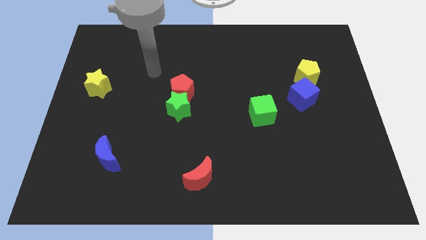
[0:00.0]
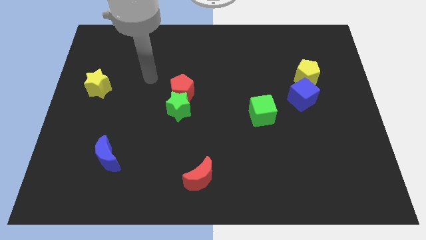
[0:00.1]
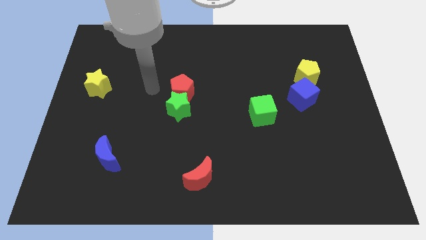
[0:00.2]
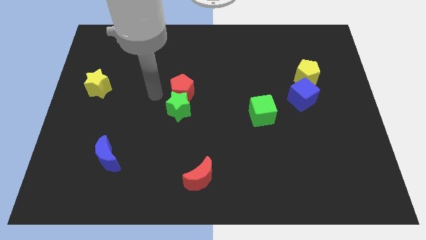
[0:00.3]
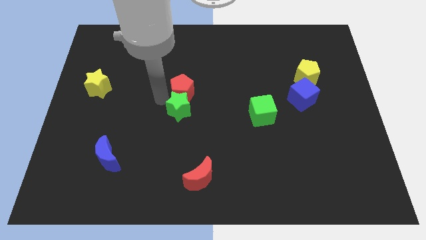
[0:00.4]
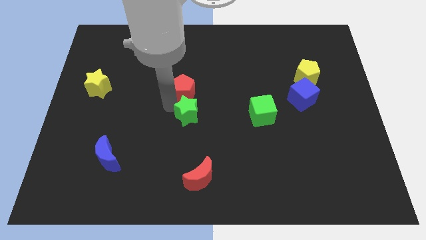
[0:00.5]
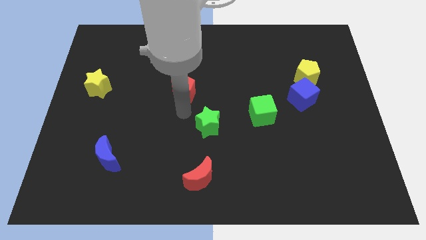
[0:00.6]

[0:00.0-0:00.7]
separate the red pentagon from the green star

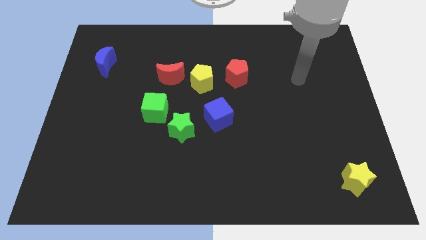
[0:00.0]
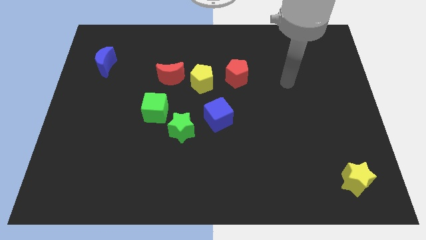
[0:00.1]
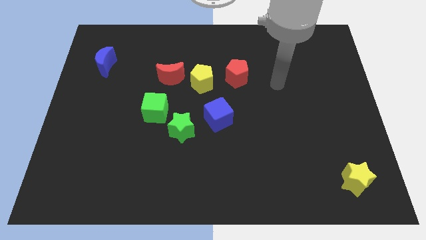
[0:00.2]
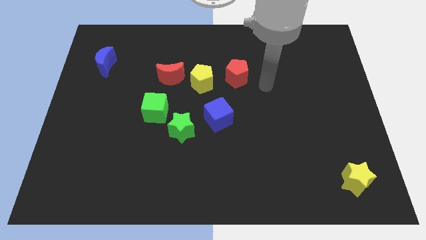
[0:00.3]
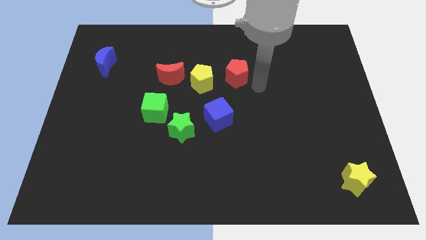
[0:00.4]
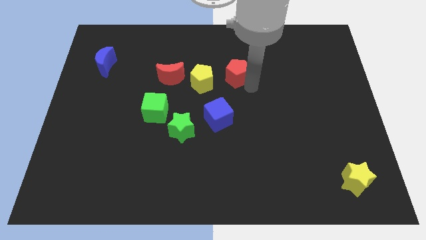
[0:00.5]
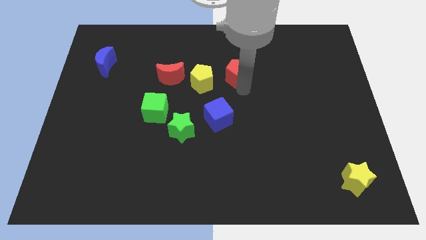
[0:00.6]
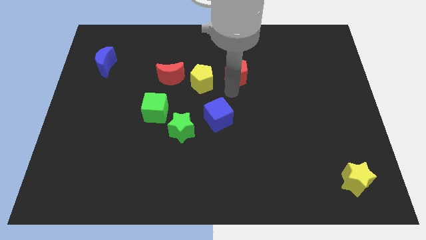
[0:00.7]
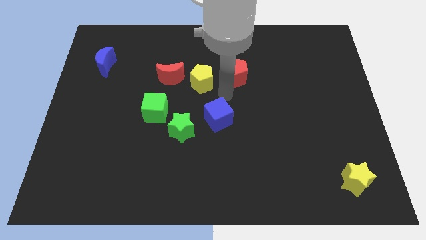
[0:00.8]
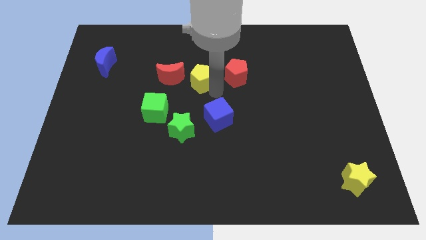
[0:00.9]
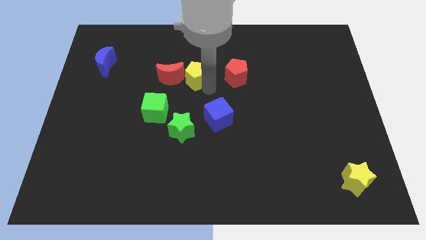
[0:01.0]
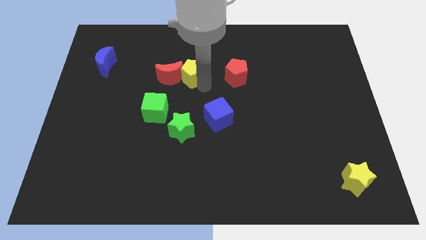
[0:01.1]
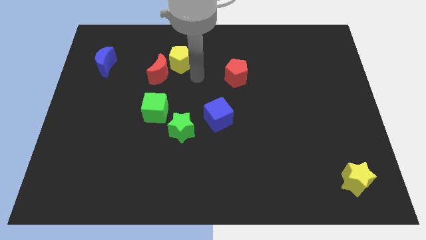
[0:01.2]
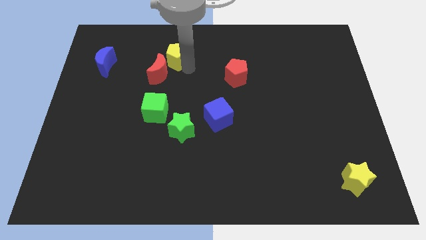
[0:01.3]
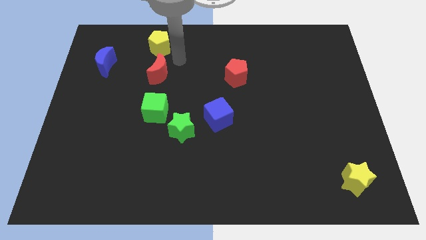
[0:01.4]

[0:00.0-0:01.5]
separate the red moon from the yellow pentagon

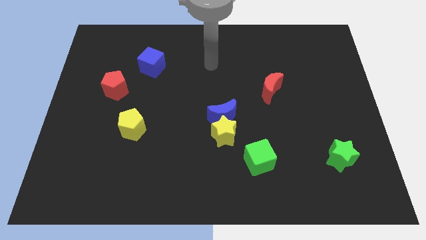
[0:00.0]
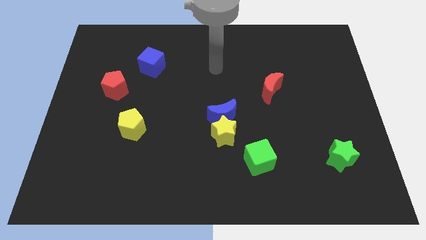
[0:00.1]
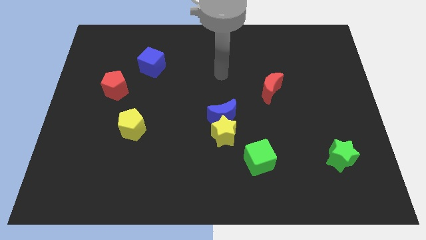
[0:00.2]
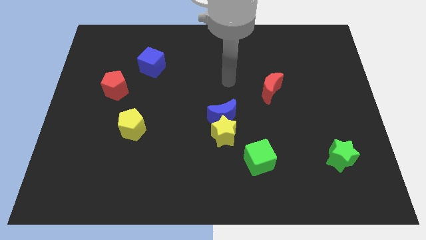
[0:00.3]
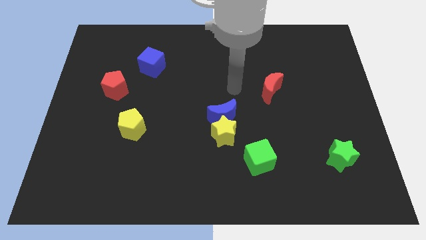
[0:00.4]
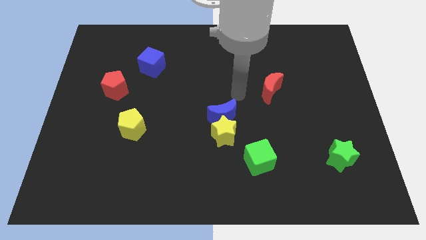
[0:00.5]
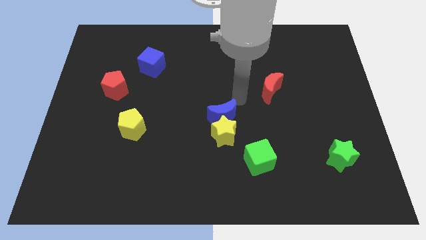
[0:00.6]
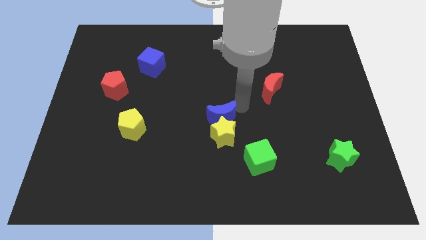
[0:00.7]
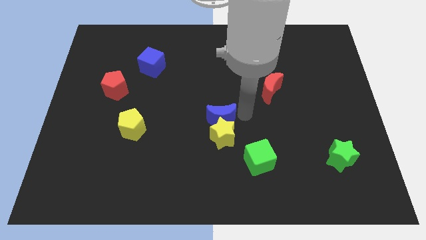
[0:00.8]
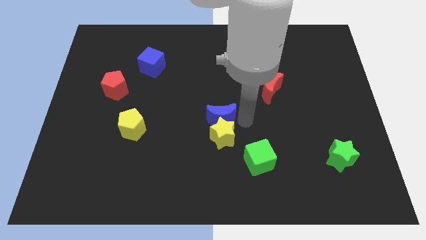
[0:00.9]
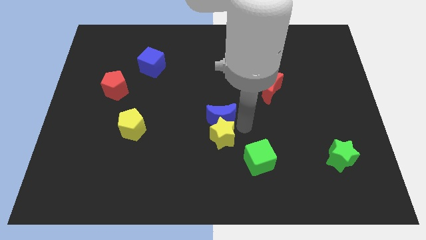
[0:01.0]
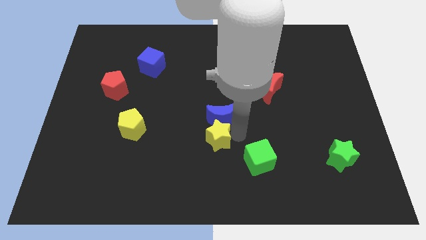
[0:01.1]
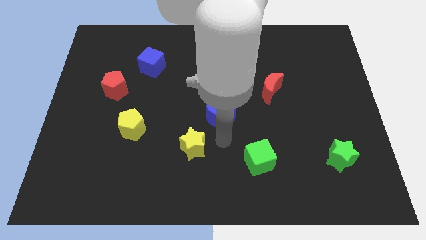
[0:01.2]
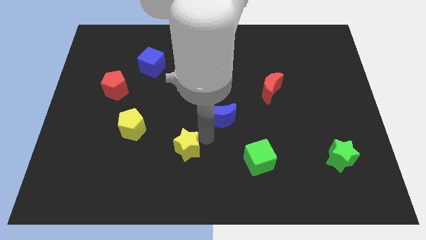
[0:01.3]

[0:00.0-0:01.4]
pull the blue moon apart from the yellow star

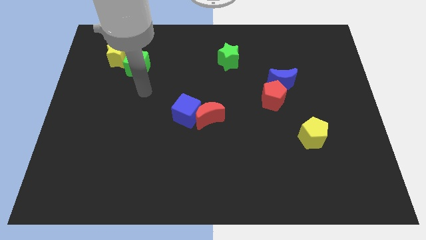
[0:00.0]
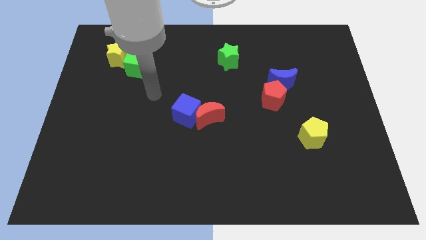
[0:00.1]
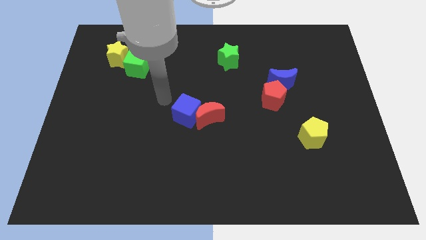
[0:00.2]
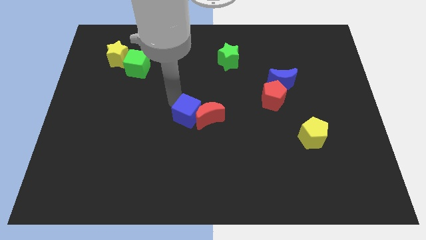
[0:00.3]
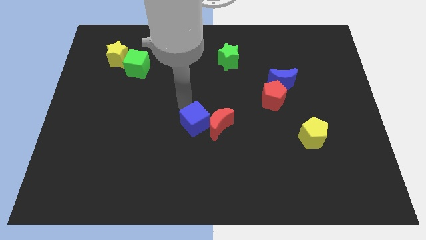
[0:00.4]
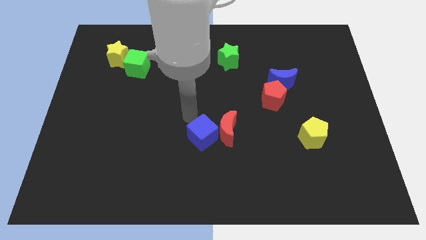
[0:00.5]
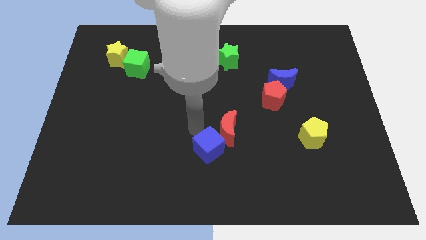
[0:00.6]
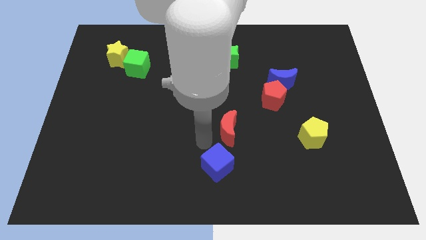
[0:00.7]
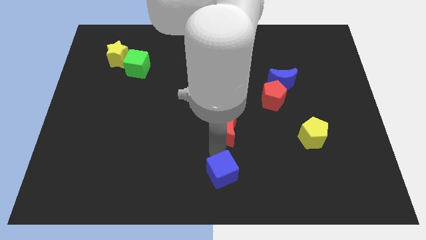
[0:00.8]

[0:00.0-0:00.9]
separate the red moon from the blue cube

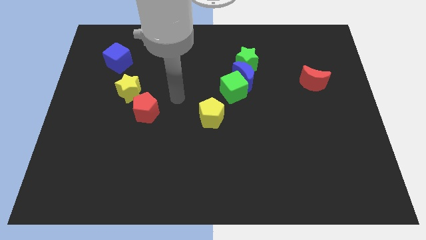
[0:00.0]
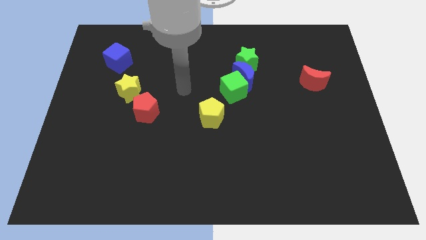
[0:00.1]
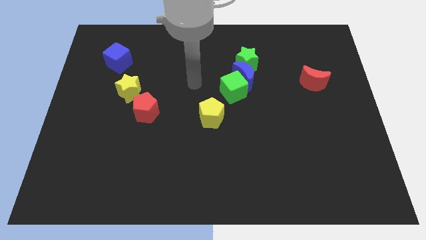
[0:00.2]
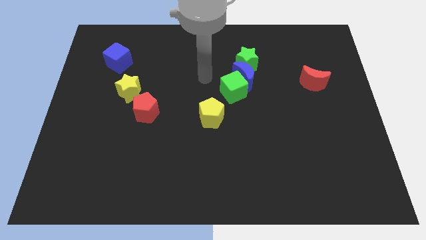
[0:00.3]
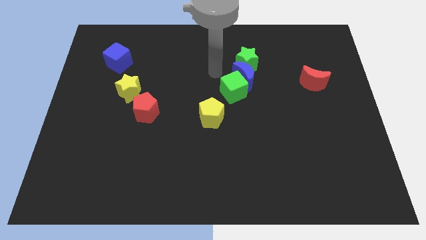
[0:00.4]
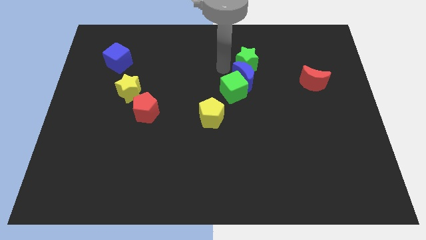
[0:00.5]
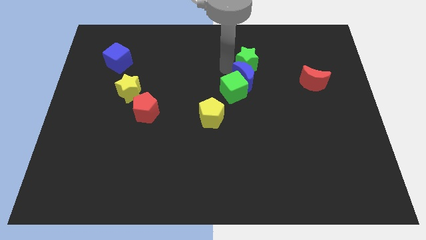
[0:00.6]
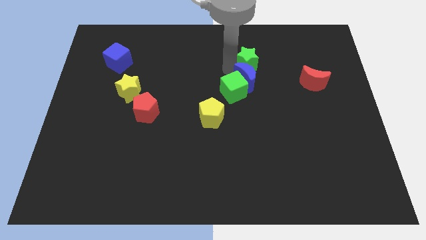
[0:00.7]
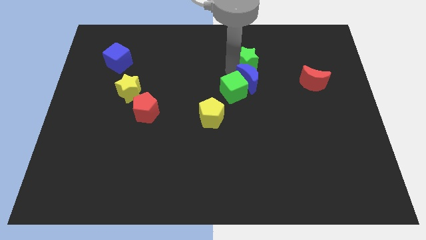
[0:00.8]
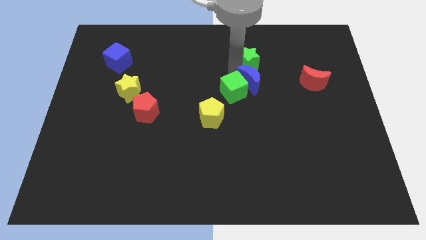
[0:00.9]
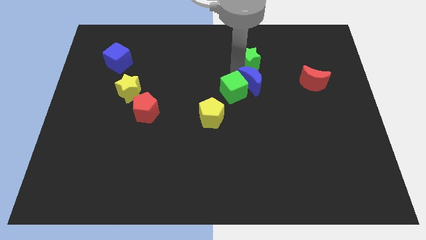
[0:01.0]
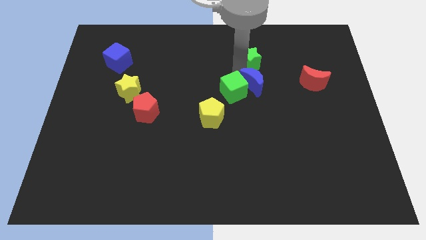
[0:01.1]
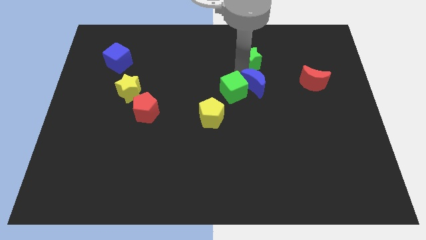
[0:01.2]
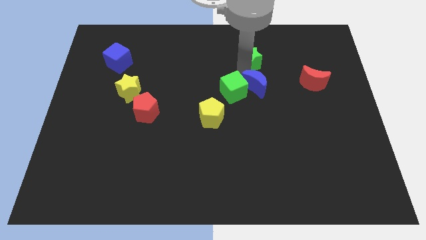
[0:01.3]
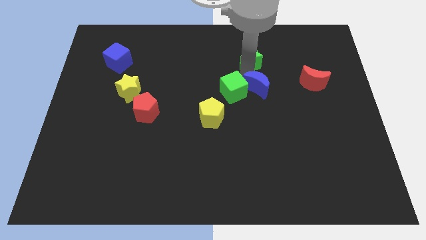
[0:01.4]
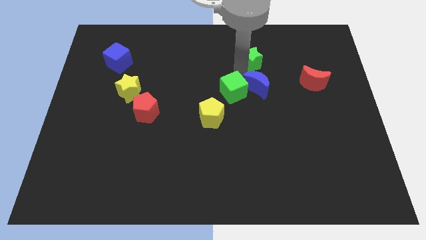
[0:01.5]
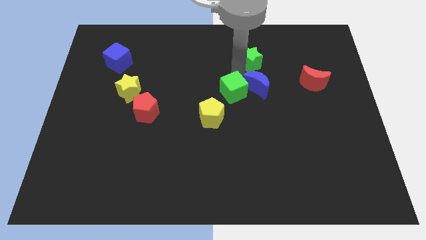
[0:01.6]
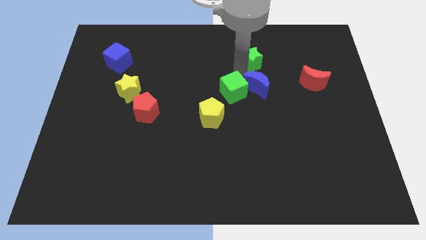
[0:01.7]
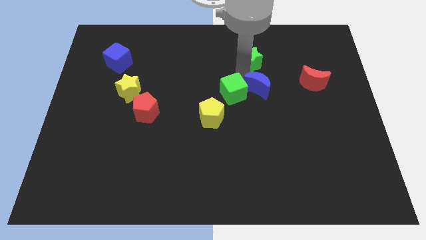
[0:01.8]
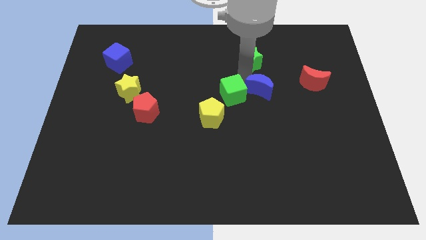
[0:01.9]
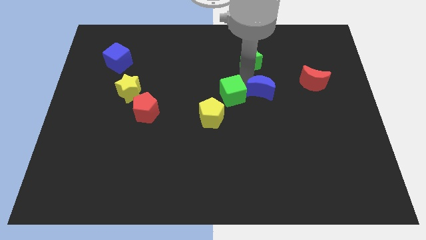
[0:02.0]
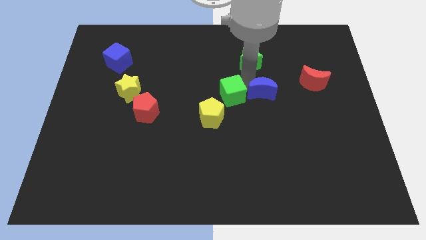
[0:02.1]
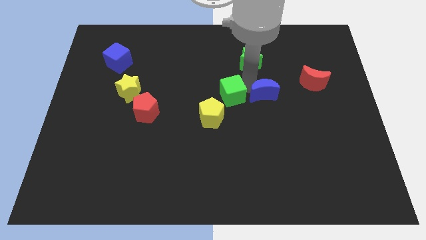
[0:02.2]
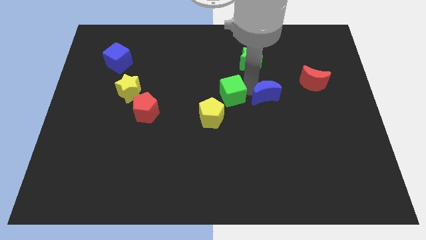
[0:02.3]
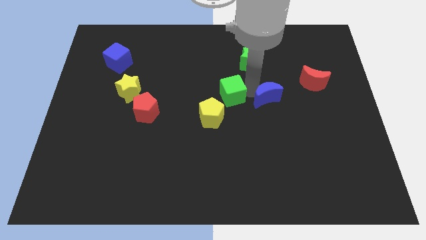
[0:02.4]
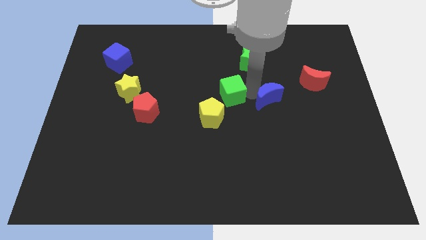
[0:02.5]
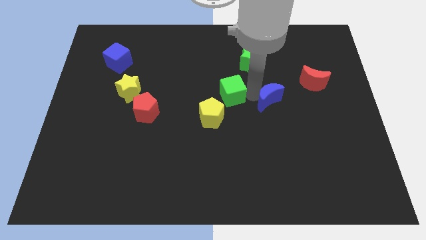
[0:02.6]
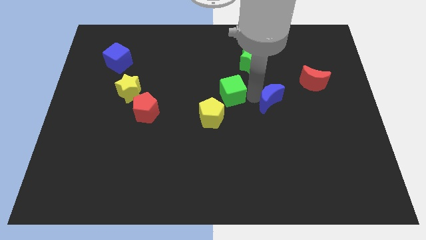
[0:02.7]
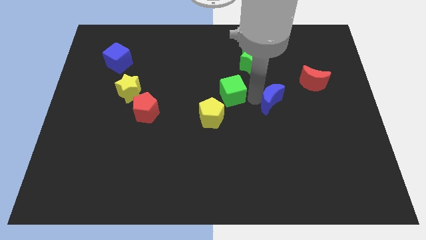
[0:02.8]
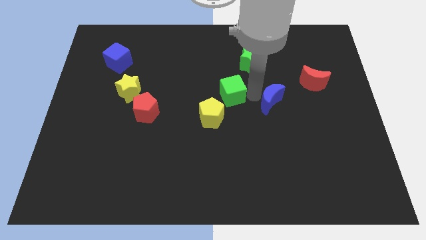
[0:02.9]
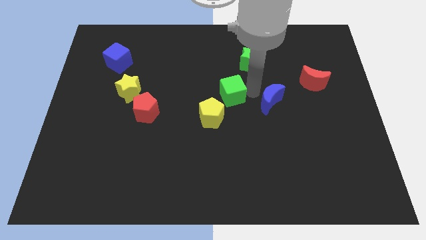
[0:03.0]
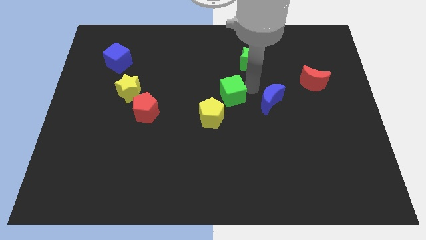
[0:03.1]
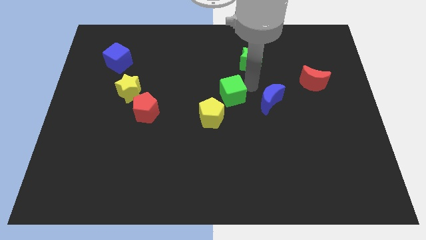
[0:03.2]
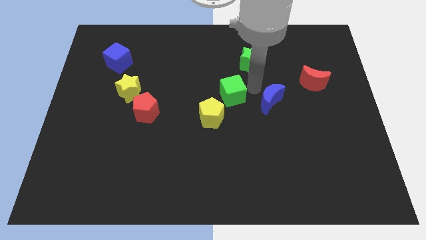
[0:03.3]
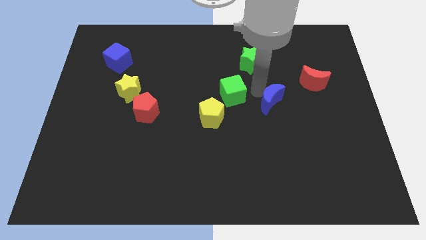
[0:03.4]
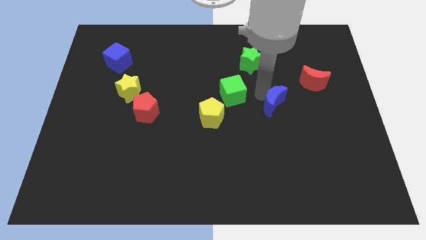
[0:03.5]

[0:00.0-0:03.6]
pull the blue moon apart from the green cube and green star

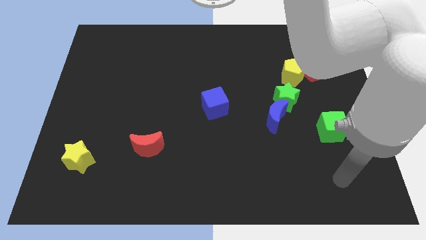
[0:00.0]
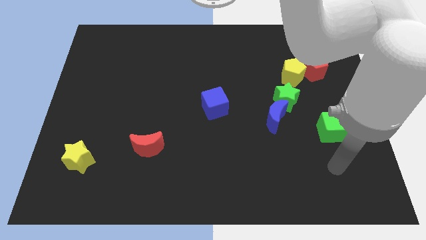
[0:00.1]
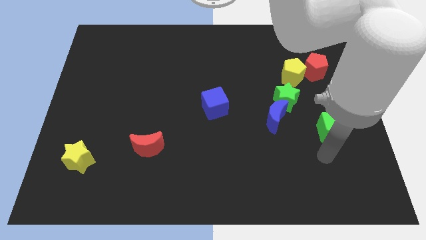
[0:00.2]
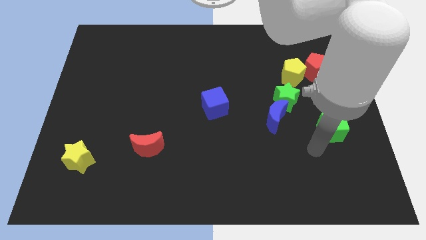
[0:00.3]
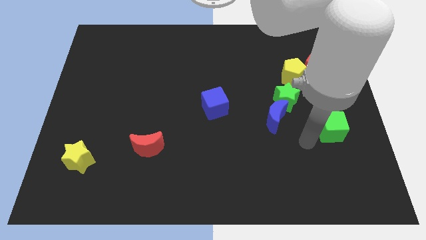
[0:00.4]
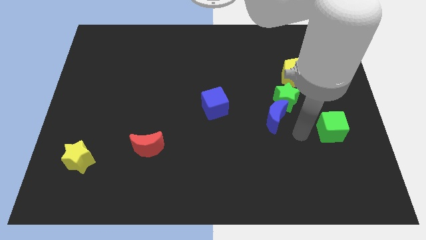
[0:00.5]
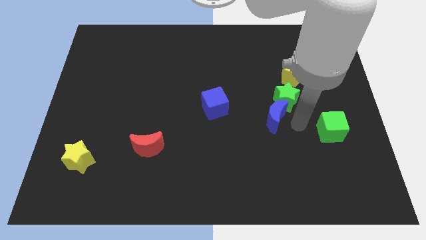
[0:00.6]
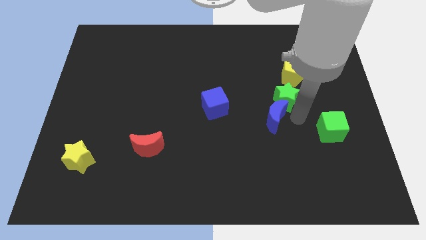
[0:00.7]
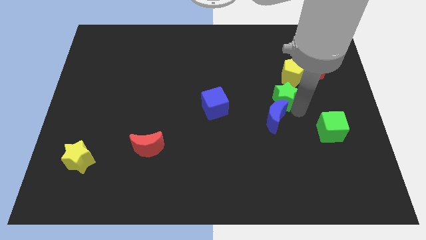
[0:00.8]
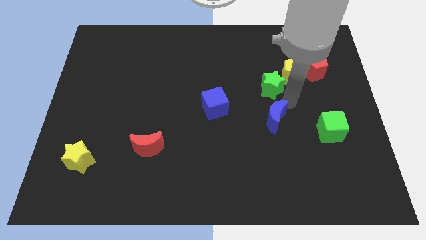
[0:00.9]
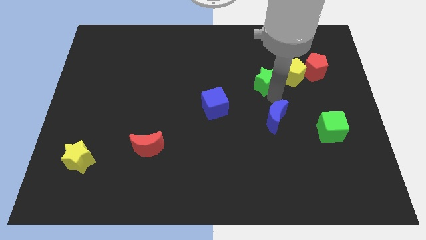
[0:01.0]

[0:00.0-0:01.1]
separate the blue moon from the green star

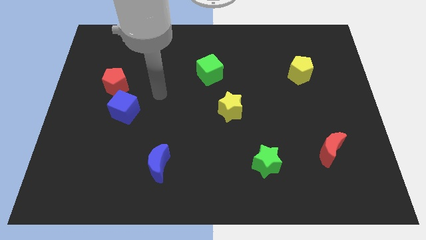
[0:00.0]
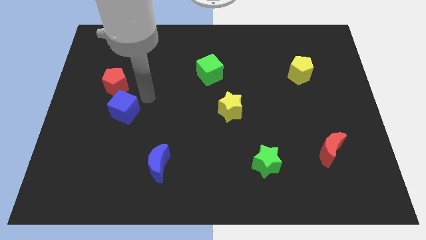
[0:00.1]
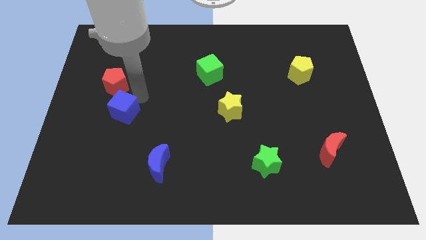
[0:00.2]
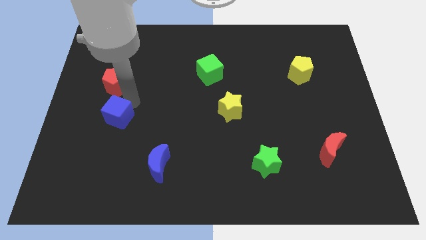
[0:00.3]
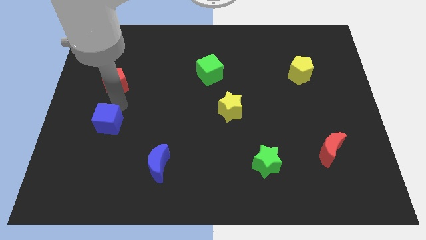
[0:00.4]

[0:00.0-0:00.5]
move the red pentagon away from the blue cube
